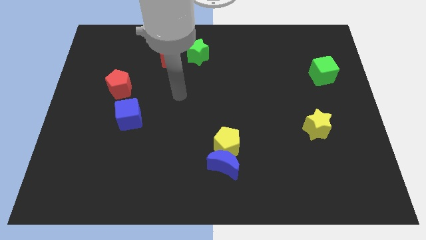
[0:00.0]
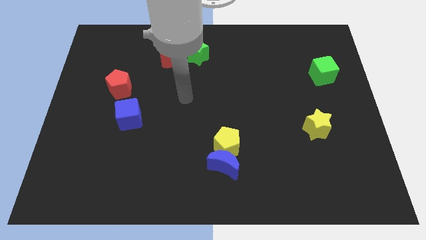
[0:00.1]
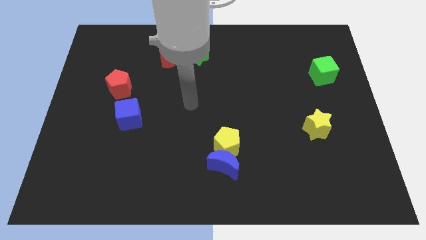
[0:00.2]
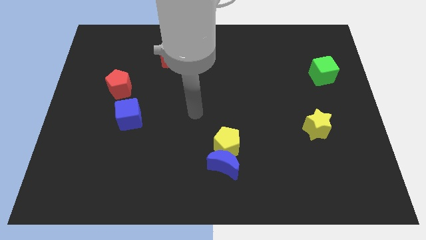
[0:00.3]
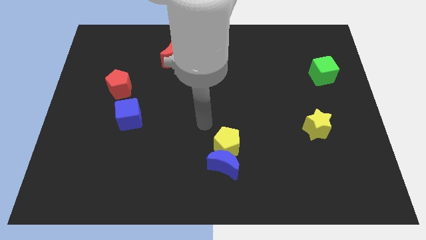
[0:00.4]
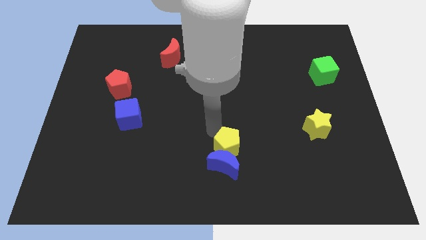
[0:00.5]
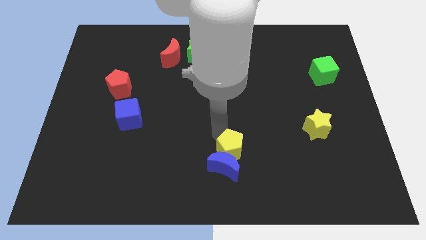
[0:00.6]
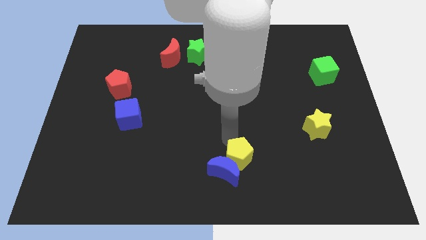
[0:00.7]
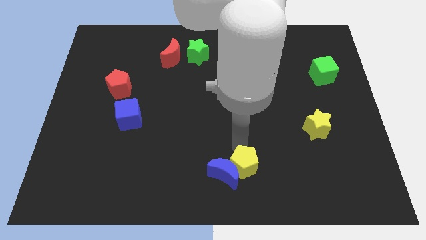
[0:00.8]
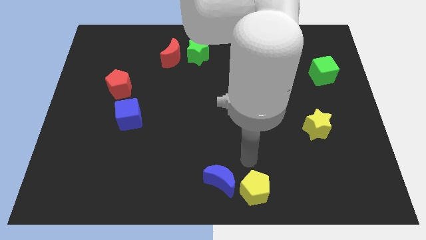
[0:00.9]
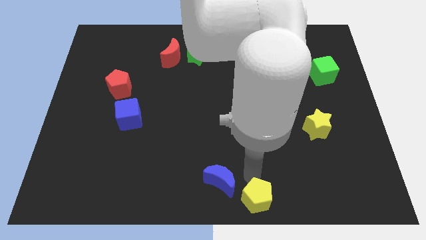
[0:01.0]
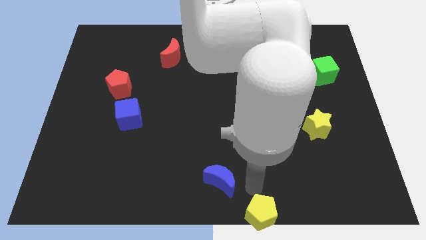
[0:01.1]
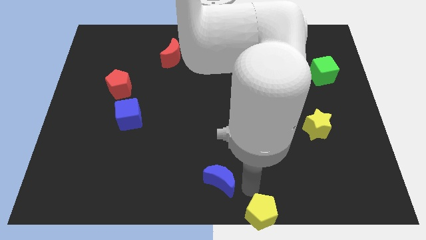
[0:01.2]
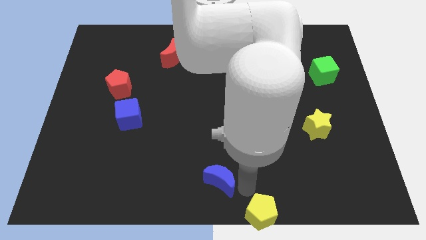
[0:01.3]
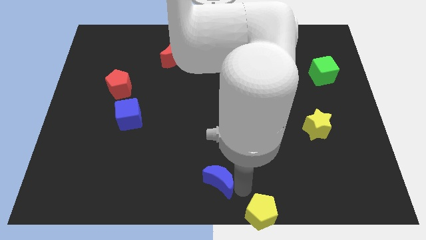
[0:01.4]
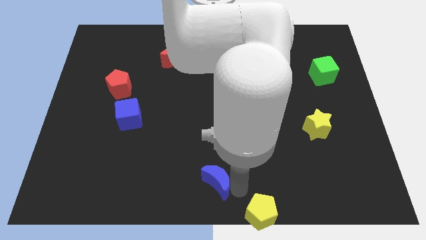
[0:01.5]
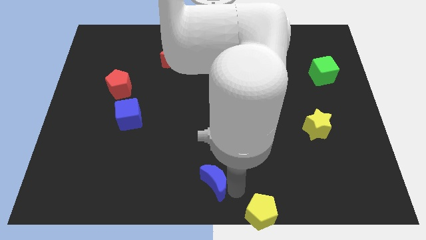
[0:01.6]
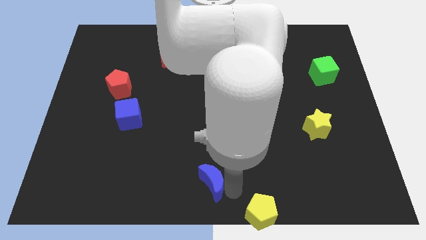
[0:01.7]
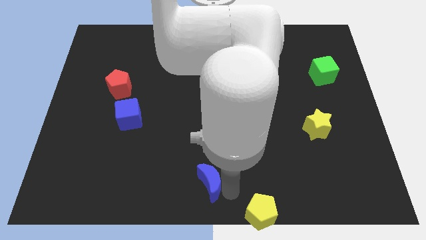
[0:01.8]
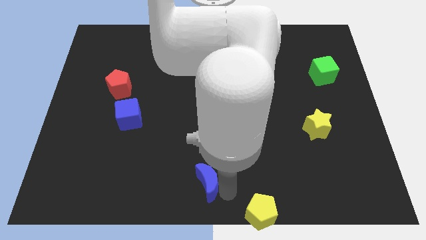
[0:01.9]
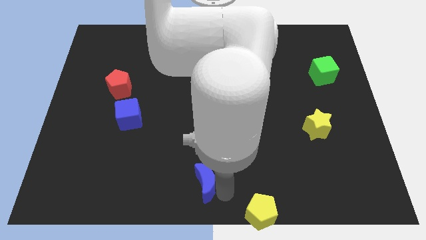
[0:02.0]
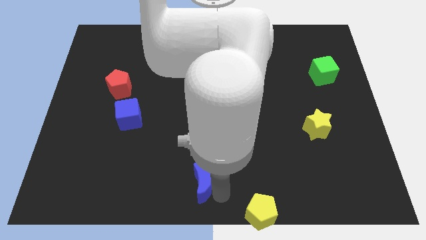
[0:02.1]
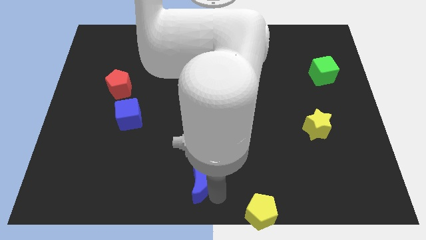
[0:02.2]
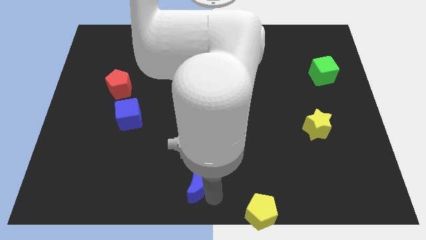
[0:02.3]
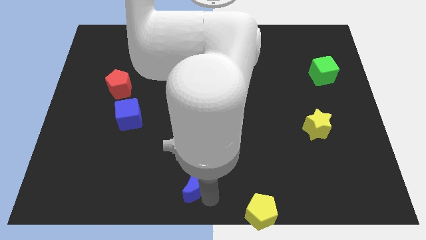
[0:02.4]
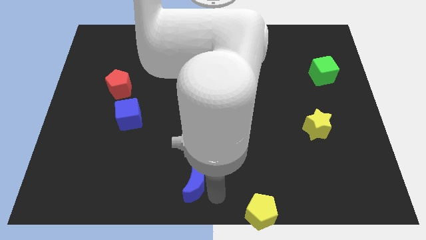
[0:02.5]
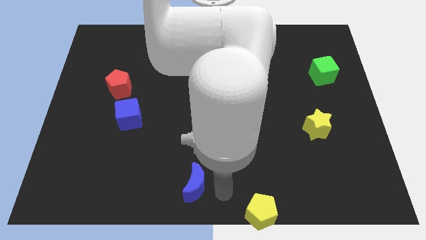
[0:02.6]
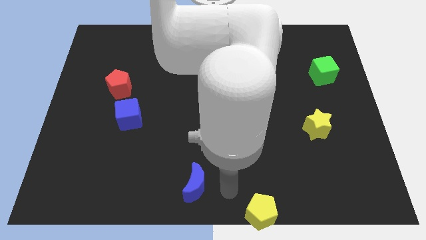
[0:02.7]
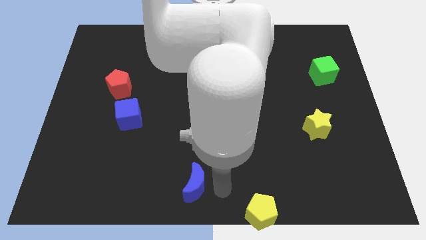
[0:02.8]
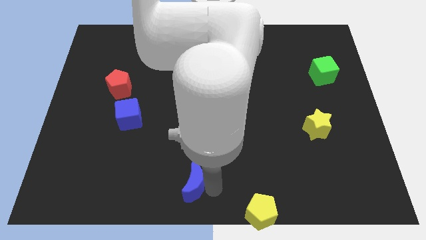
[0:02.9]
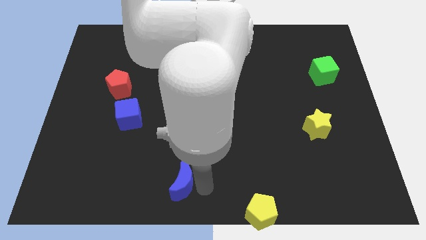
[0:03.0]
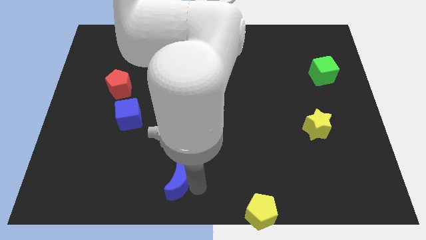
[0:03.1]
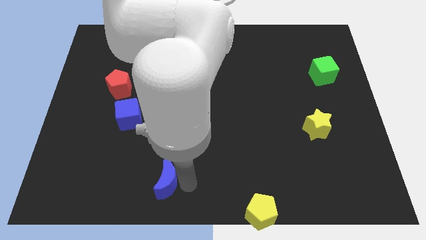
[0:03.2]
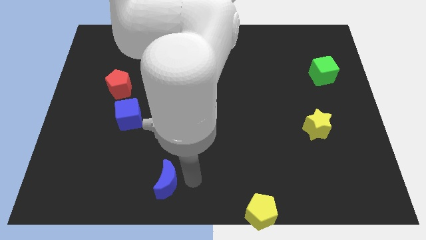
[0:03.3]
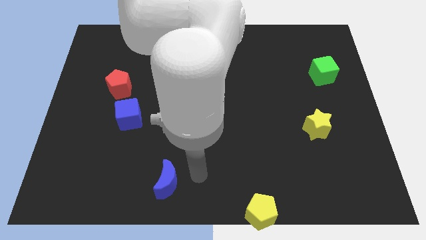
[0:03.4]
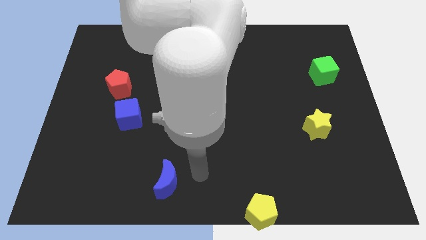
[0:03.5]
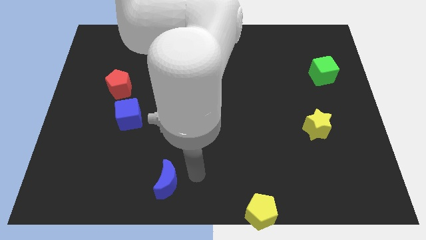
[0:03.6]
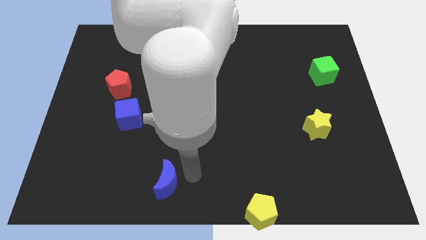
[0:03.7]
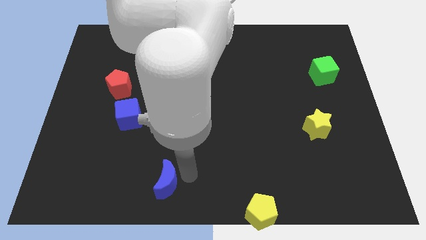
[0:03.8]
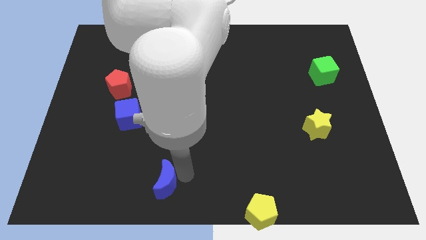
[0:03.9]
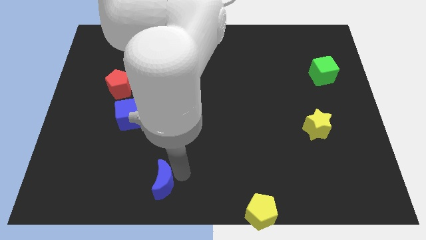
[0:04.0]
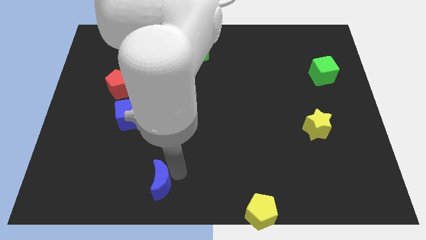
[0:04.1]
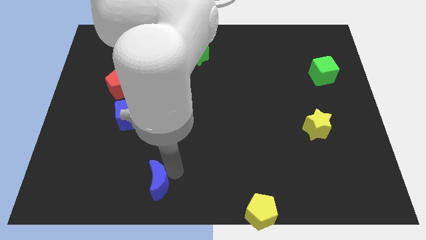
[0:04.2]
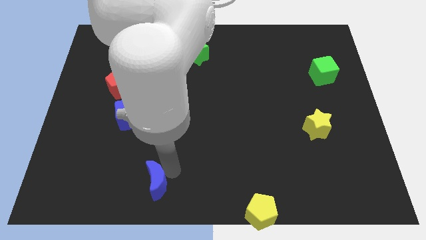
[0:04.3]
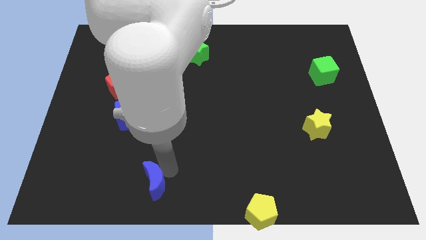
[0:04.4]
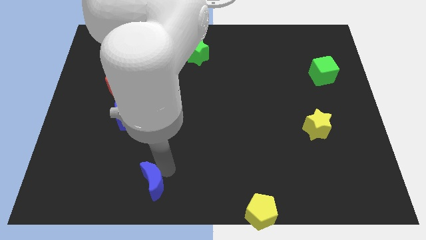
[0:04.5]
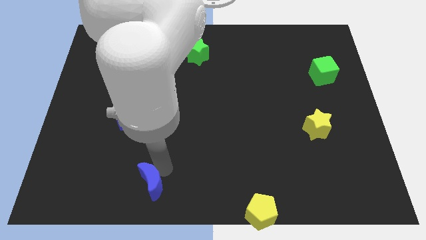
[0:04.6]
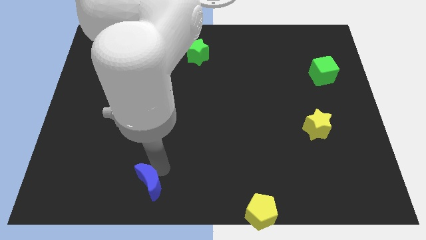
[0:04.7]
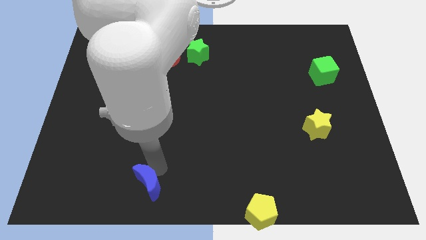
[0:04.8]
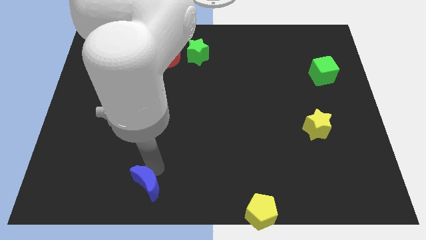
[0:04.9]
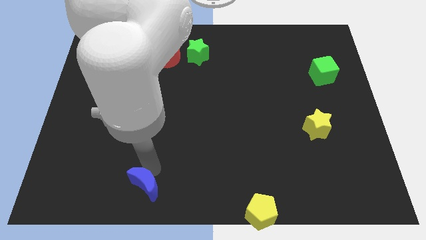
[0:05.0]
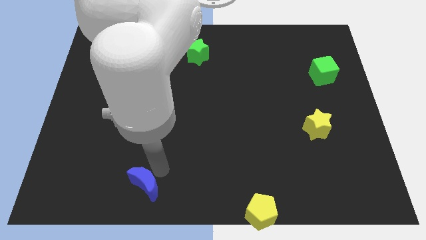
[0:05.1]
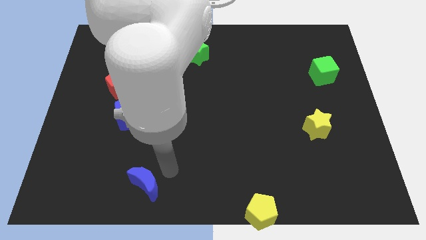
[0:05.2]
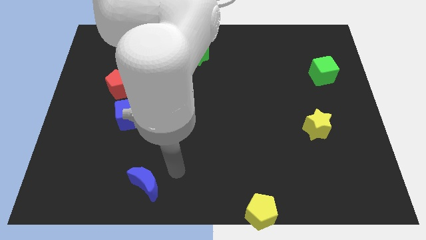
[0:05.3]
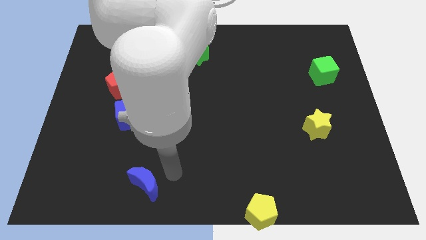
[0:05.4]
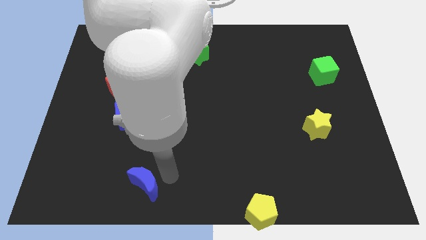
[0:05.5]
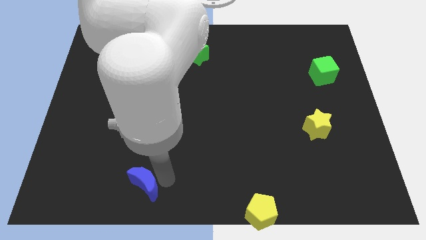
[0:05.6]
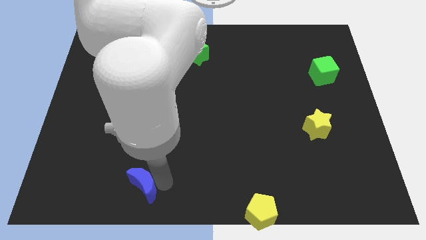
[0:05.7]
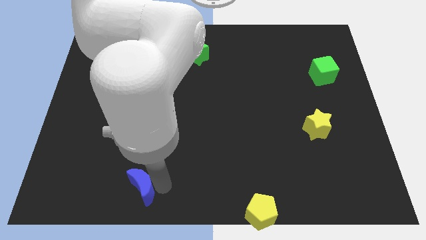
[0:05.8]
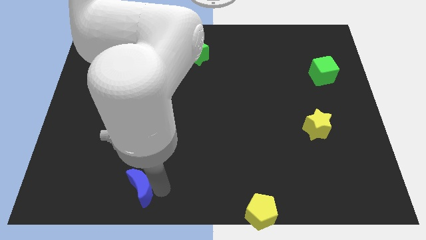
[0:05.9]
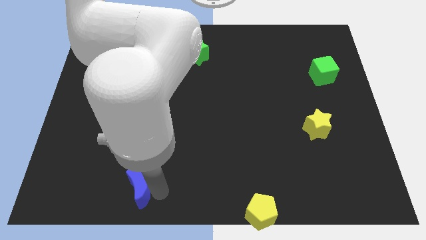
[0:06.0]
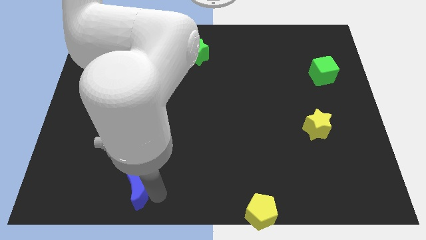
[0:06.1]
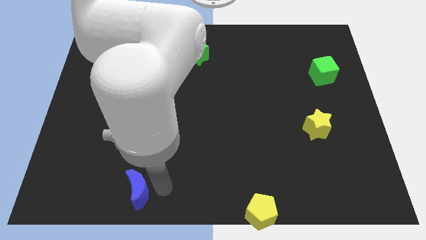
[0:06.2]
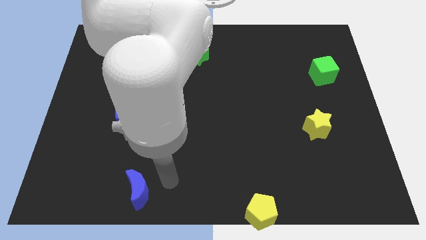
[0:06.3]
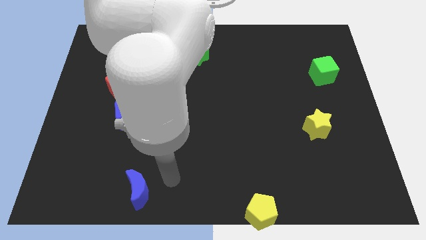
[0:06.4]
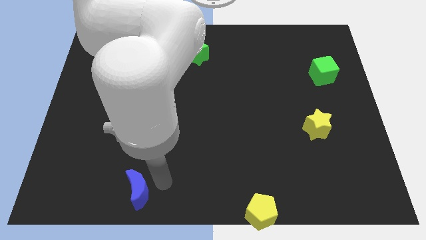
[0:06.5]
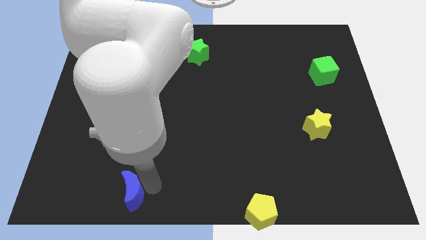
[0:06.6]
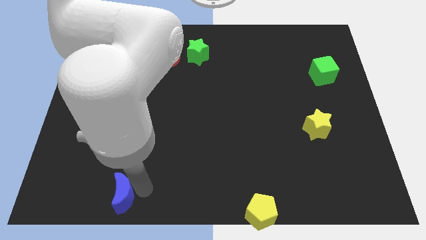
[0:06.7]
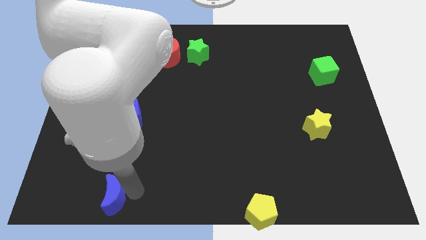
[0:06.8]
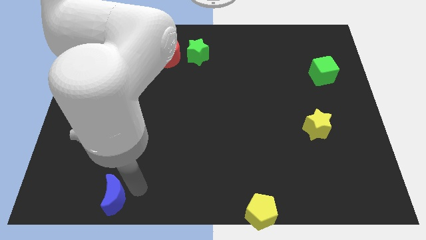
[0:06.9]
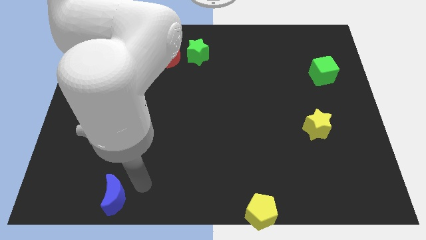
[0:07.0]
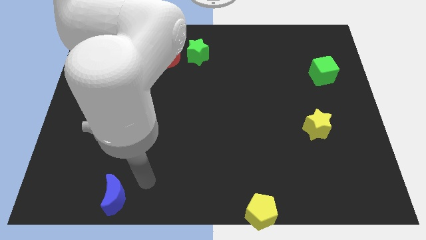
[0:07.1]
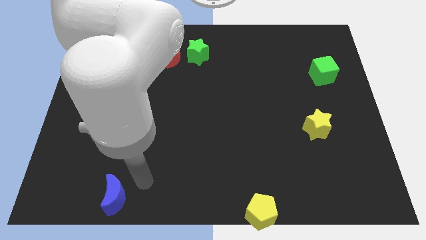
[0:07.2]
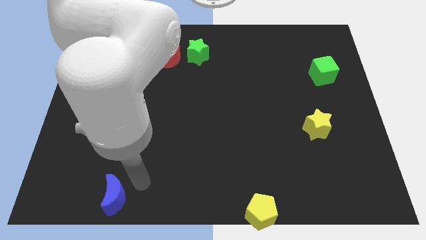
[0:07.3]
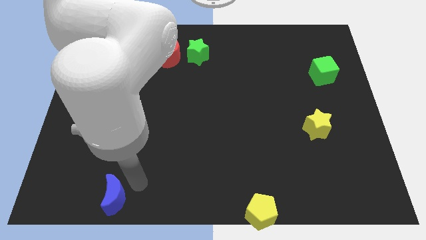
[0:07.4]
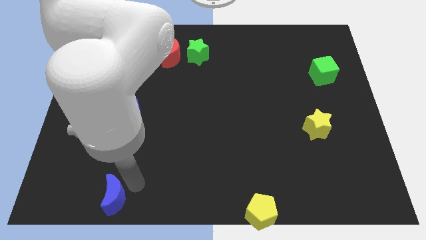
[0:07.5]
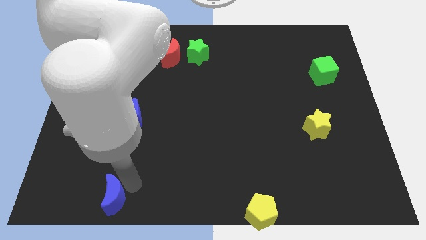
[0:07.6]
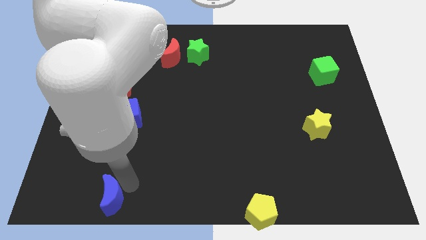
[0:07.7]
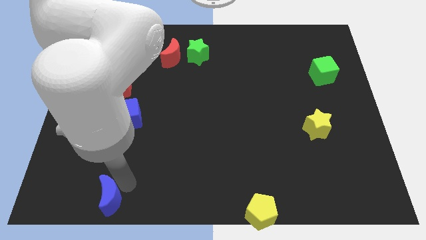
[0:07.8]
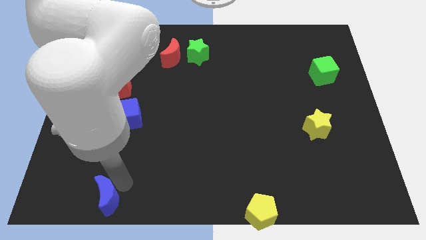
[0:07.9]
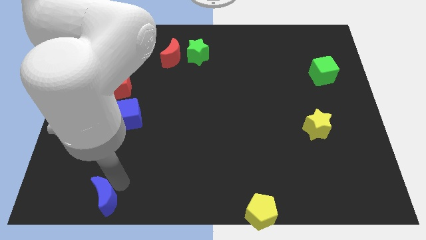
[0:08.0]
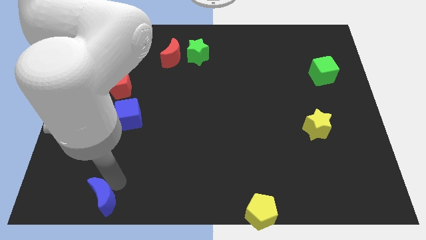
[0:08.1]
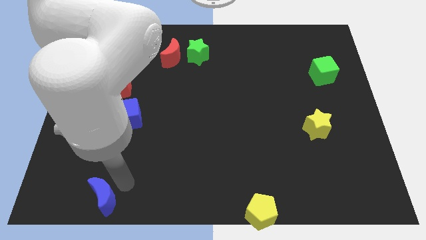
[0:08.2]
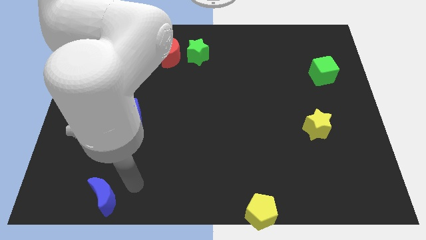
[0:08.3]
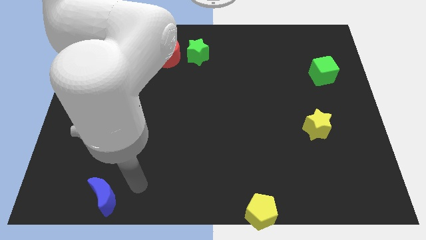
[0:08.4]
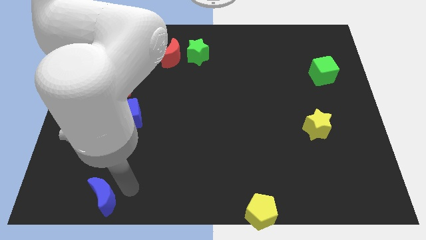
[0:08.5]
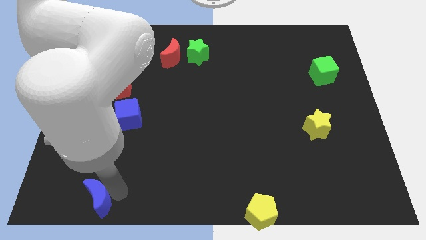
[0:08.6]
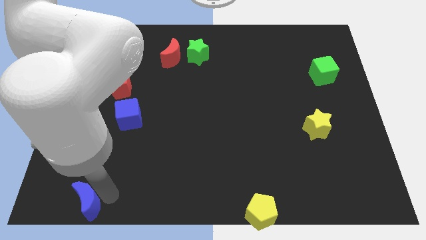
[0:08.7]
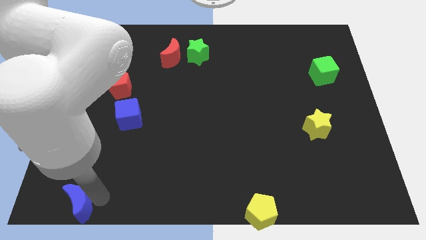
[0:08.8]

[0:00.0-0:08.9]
push the blue moon to the lower left corner
